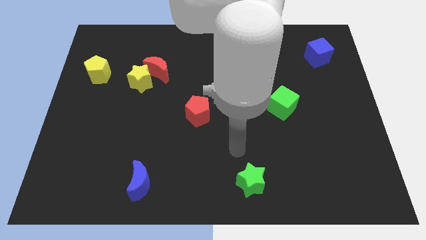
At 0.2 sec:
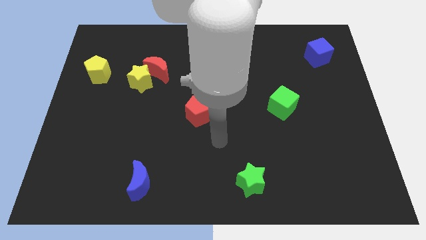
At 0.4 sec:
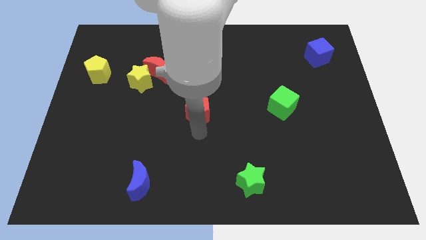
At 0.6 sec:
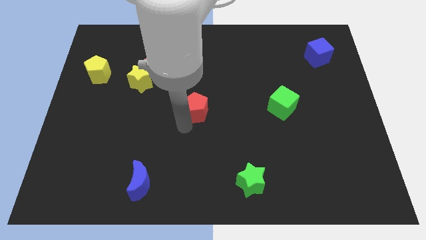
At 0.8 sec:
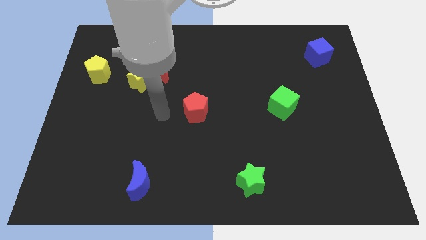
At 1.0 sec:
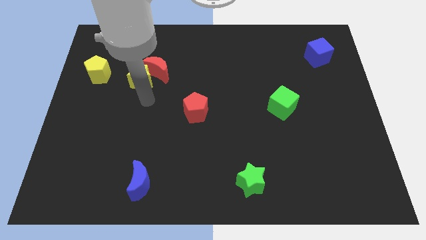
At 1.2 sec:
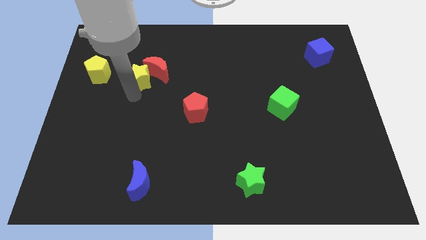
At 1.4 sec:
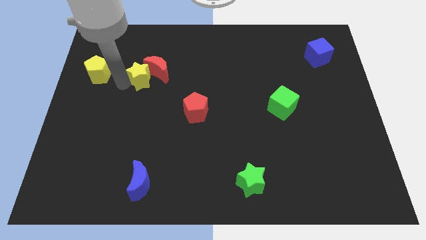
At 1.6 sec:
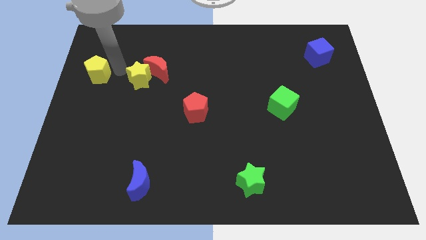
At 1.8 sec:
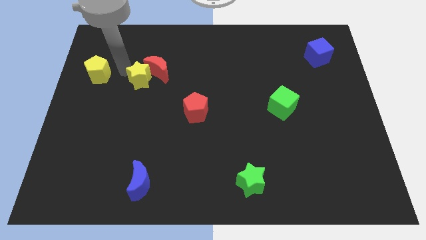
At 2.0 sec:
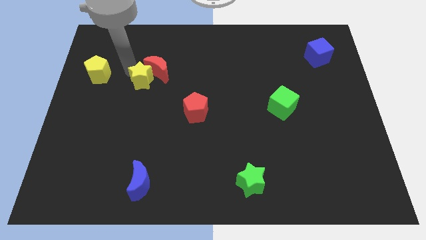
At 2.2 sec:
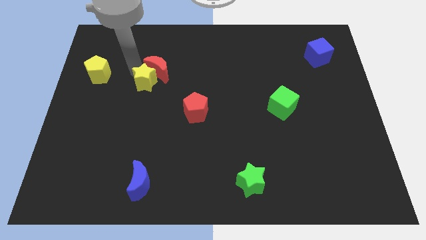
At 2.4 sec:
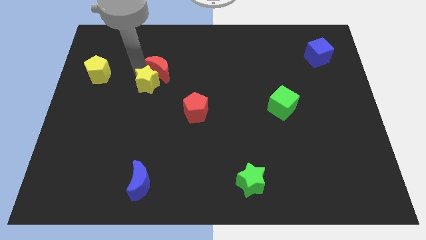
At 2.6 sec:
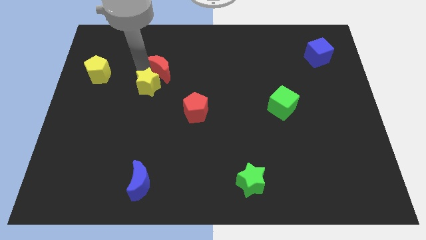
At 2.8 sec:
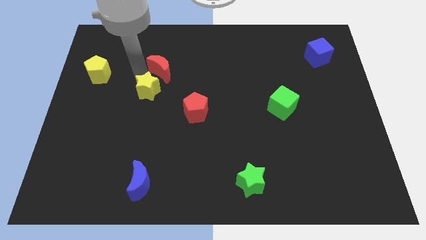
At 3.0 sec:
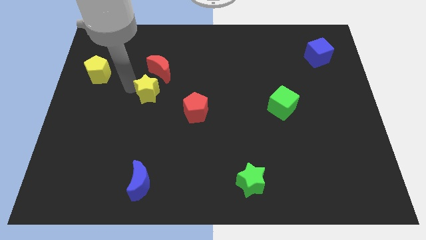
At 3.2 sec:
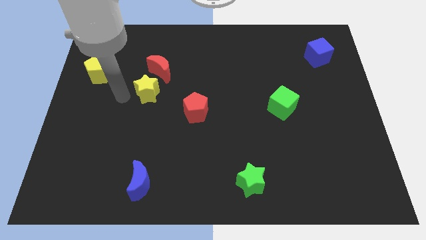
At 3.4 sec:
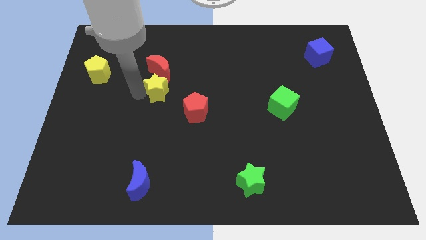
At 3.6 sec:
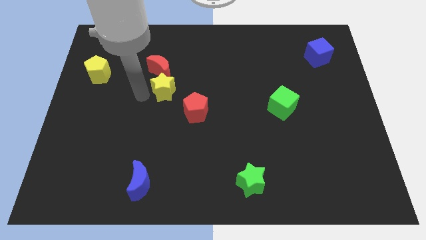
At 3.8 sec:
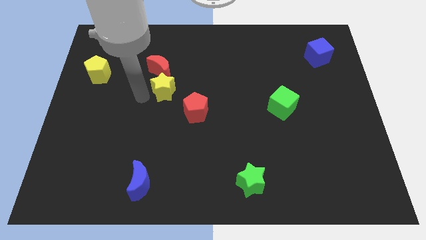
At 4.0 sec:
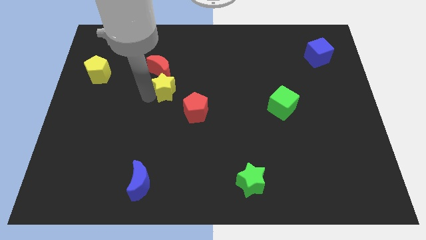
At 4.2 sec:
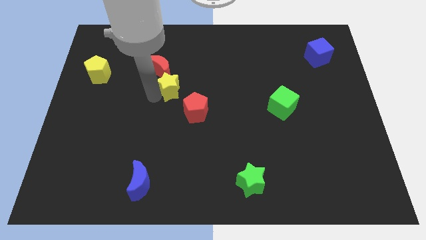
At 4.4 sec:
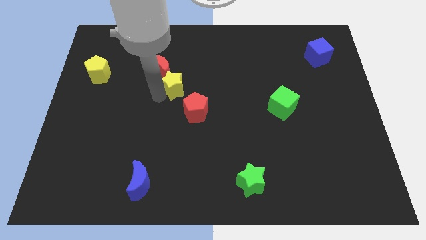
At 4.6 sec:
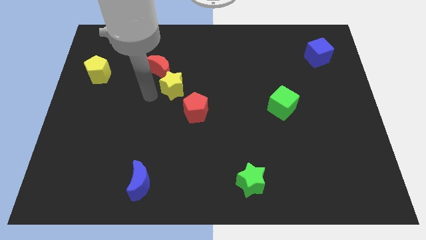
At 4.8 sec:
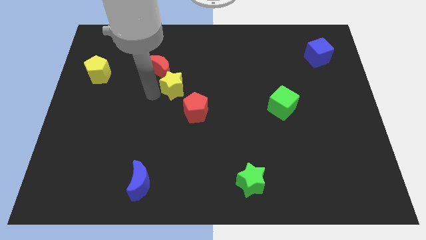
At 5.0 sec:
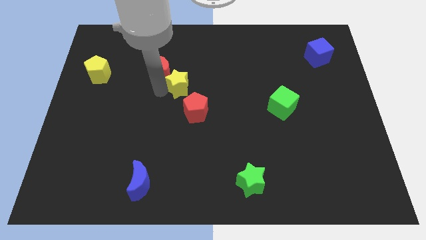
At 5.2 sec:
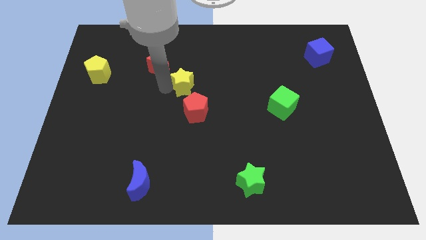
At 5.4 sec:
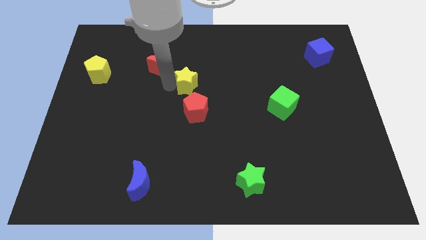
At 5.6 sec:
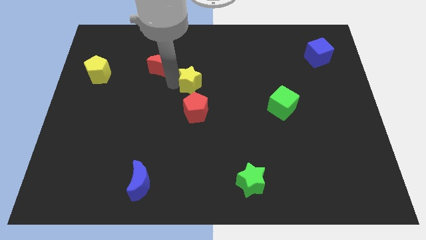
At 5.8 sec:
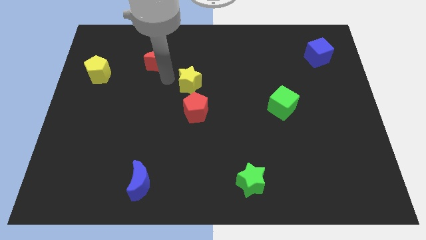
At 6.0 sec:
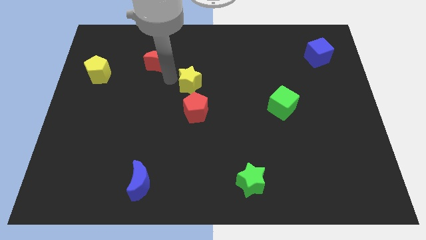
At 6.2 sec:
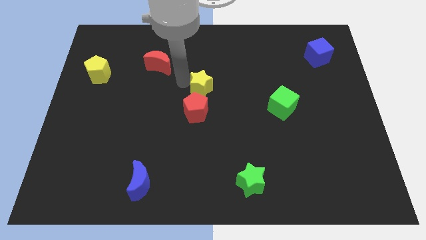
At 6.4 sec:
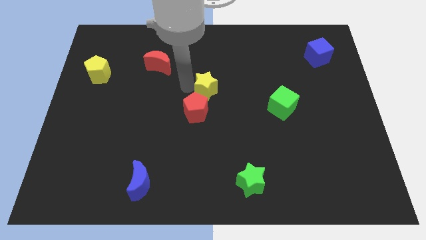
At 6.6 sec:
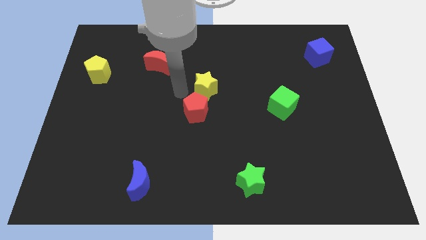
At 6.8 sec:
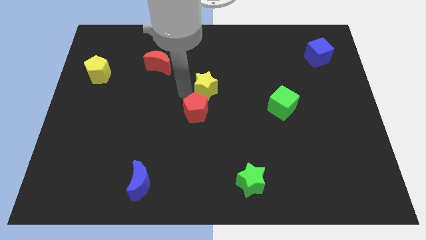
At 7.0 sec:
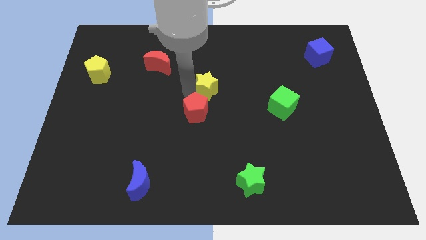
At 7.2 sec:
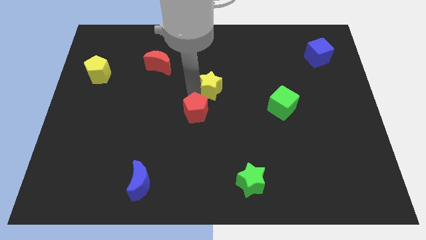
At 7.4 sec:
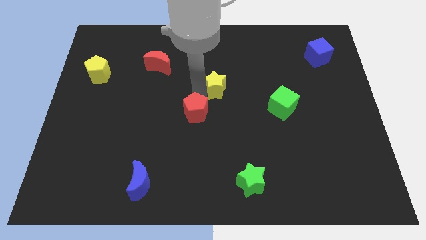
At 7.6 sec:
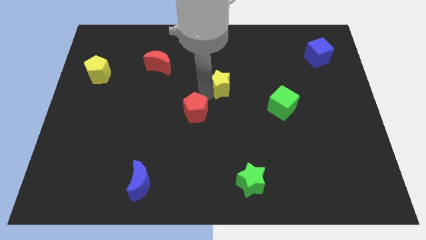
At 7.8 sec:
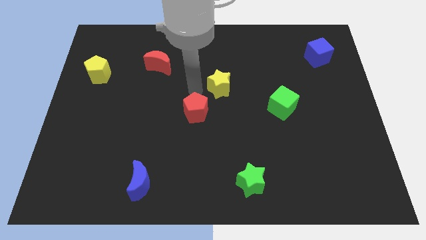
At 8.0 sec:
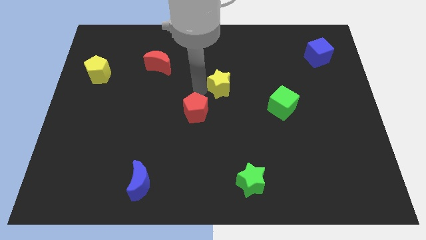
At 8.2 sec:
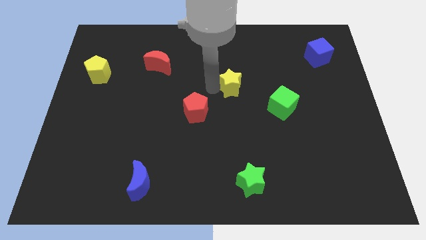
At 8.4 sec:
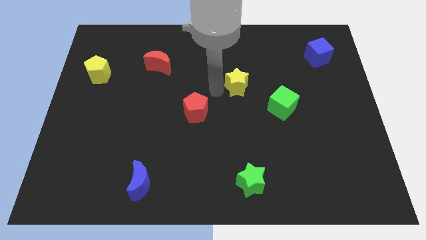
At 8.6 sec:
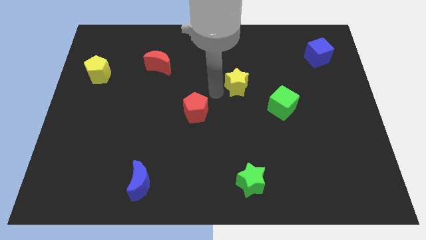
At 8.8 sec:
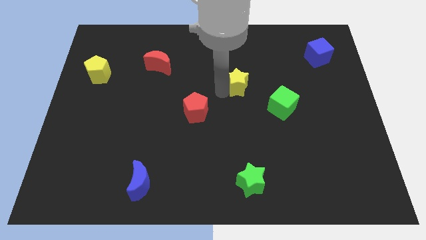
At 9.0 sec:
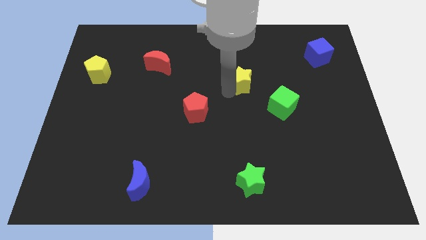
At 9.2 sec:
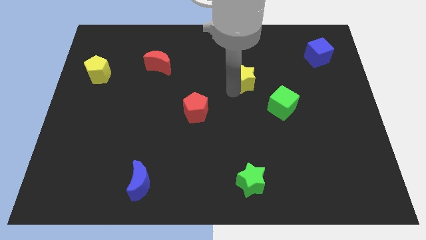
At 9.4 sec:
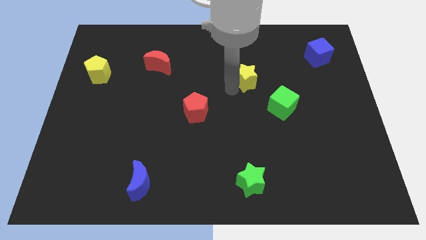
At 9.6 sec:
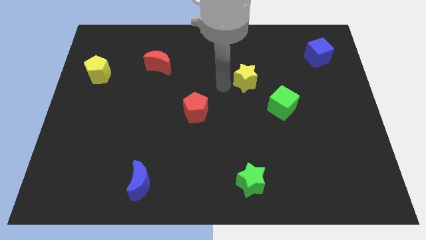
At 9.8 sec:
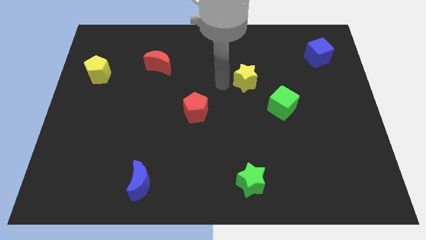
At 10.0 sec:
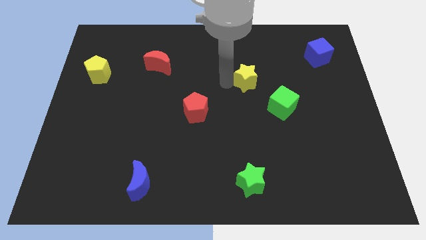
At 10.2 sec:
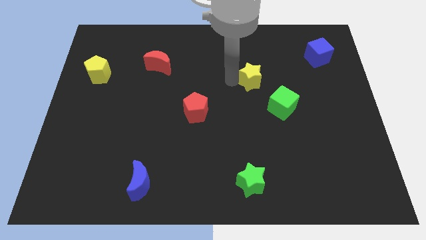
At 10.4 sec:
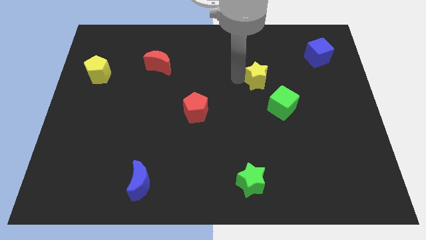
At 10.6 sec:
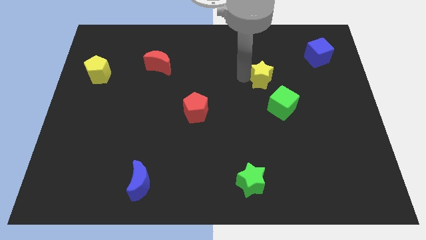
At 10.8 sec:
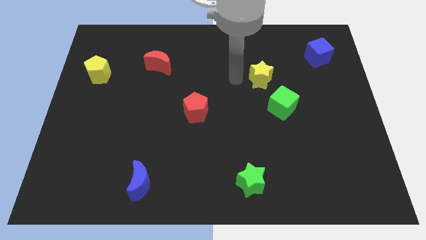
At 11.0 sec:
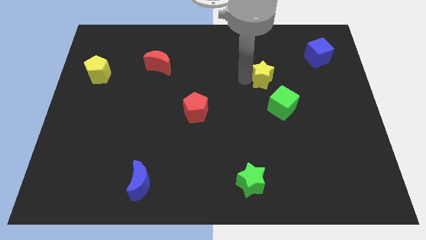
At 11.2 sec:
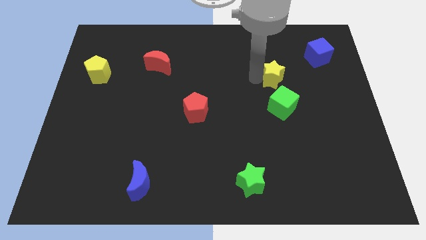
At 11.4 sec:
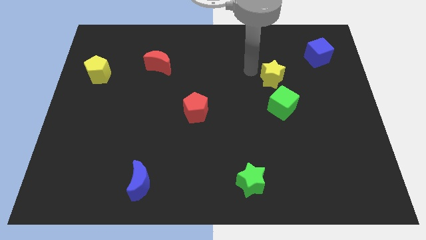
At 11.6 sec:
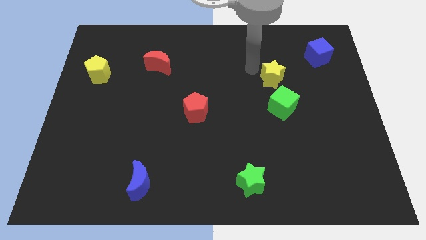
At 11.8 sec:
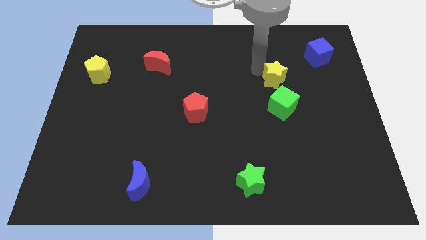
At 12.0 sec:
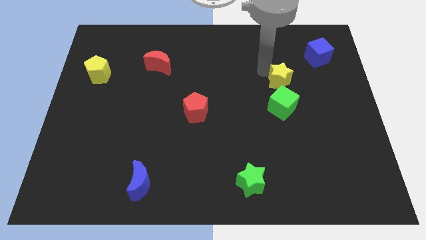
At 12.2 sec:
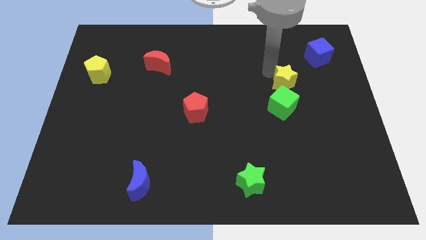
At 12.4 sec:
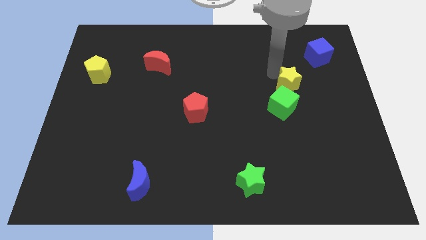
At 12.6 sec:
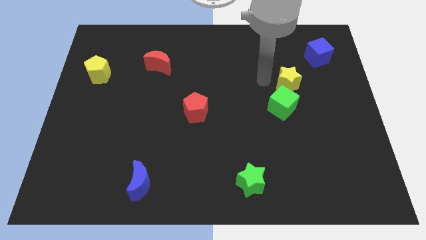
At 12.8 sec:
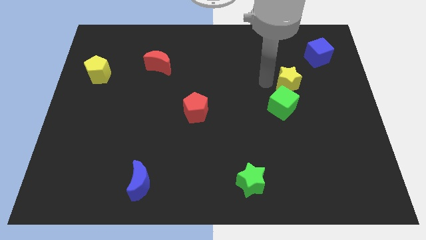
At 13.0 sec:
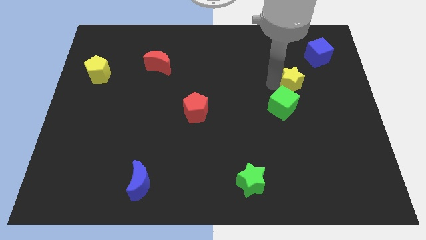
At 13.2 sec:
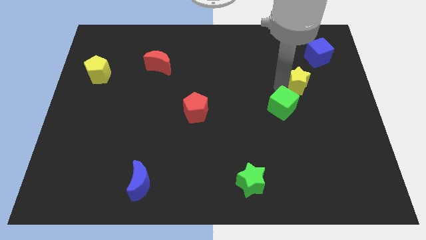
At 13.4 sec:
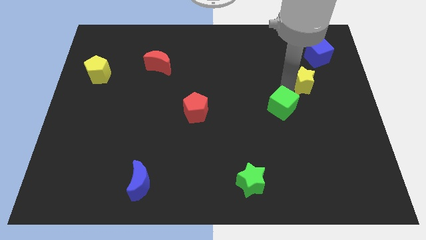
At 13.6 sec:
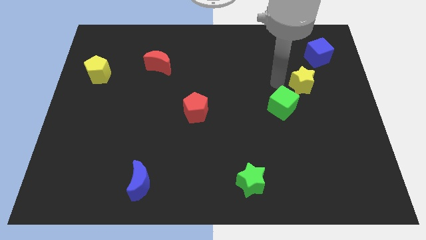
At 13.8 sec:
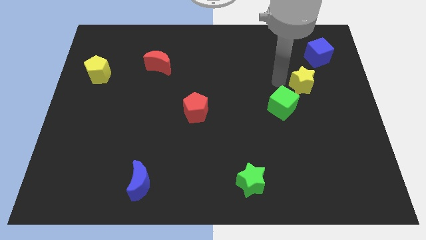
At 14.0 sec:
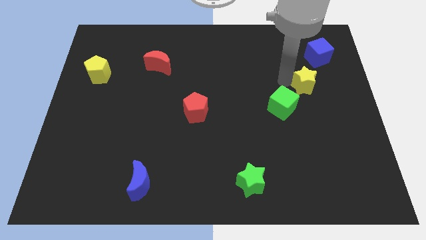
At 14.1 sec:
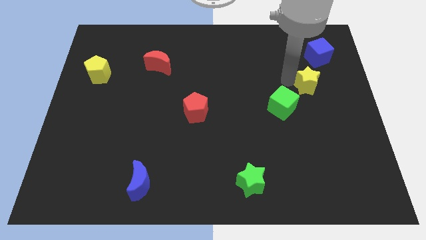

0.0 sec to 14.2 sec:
slide the yellow star to the bottom of the blue cube
